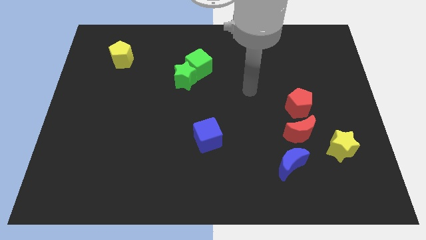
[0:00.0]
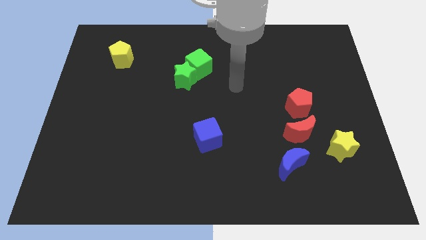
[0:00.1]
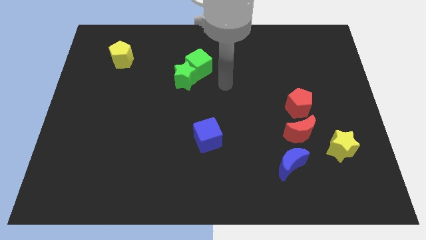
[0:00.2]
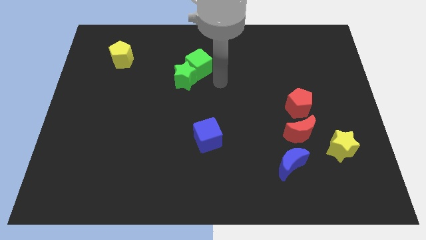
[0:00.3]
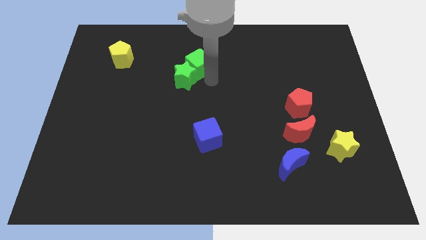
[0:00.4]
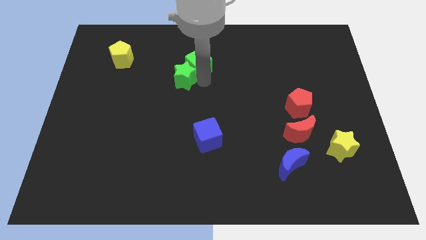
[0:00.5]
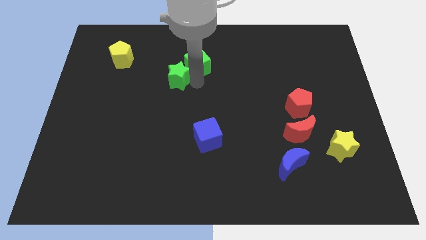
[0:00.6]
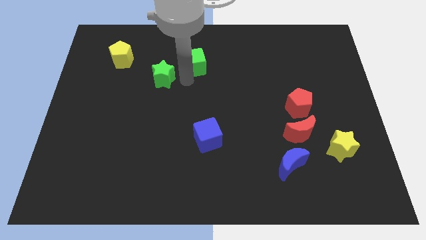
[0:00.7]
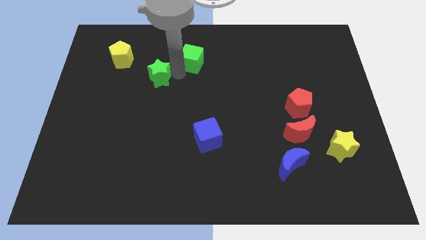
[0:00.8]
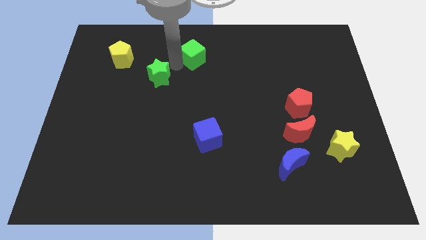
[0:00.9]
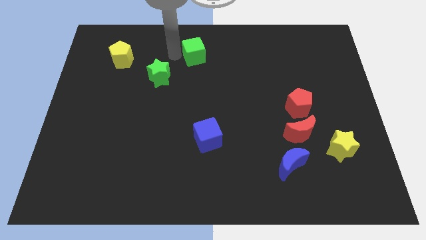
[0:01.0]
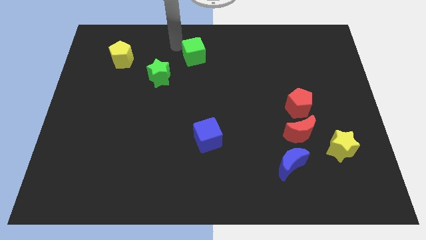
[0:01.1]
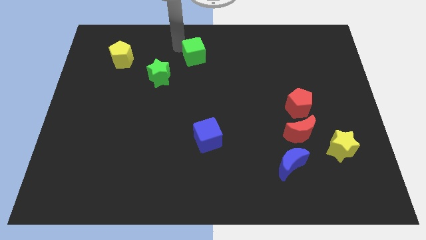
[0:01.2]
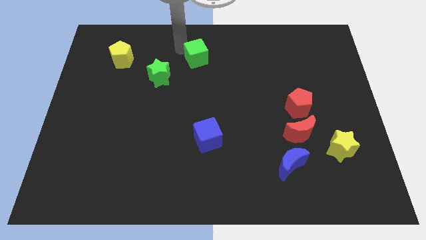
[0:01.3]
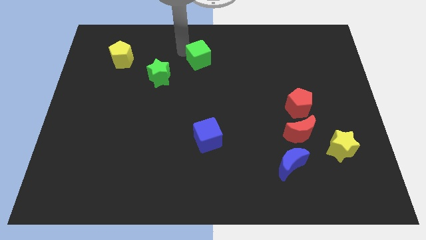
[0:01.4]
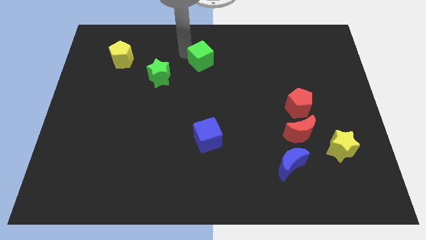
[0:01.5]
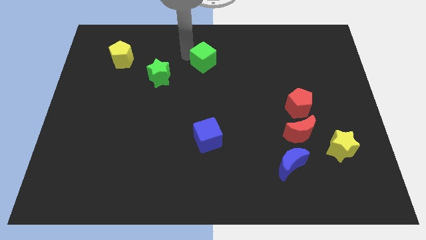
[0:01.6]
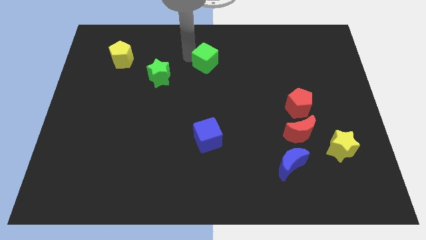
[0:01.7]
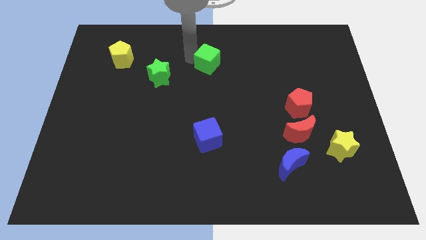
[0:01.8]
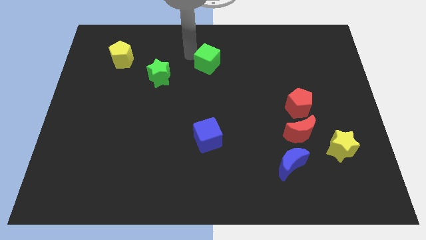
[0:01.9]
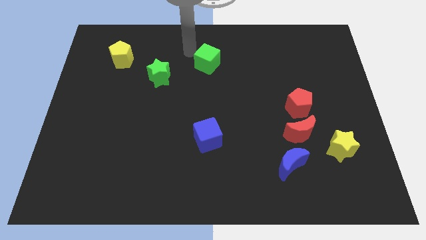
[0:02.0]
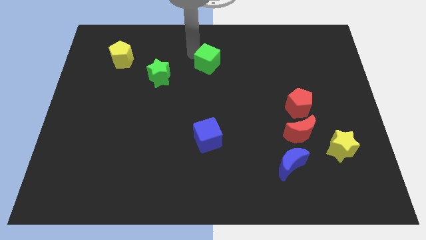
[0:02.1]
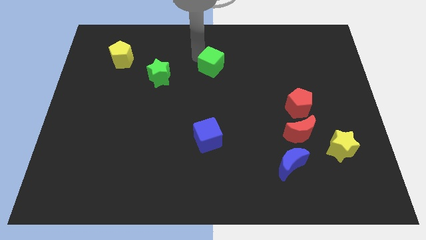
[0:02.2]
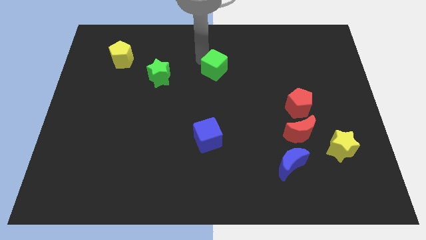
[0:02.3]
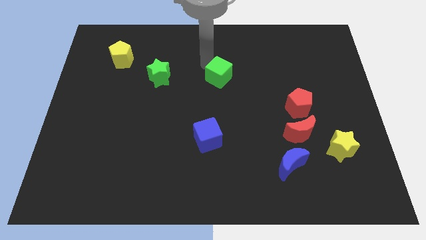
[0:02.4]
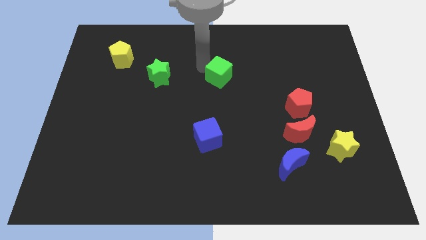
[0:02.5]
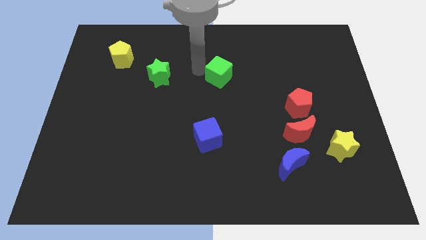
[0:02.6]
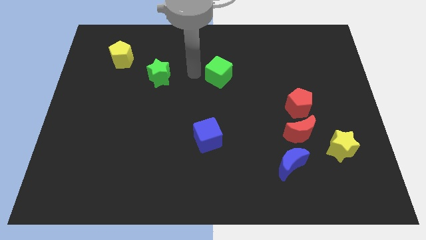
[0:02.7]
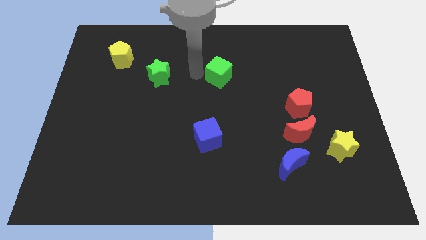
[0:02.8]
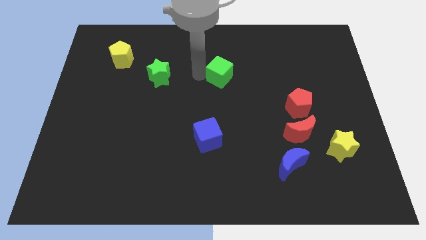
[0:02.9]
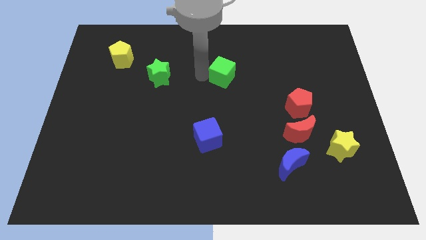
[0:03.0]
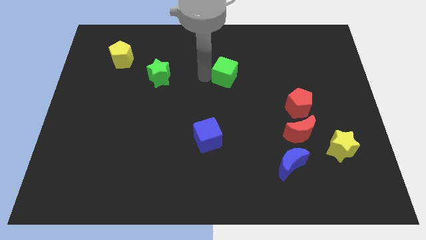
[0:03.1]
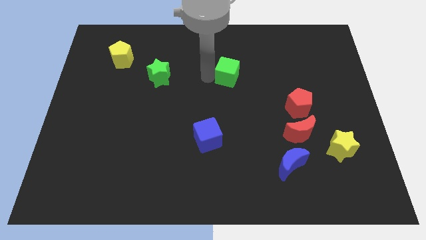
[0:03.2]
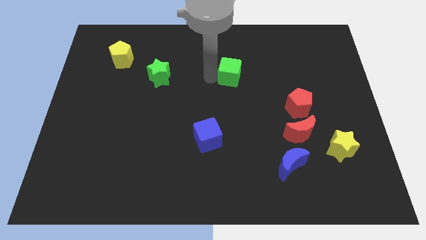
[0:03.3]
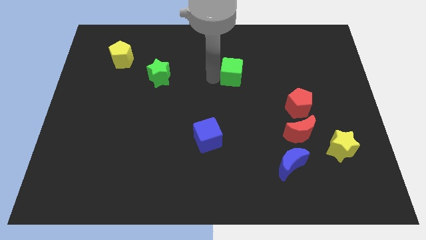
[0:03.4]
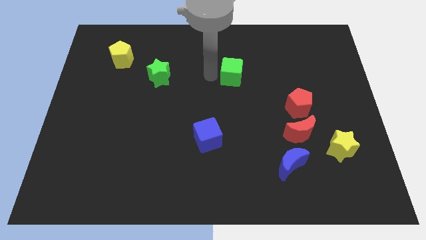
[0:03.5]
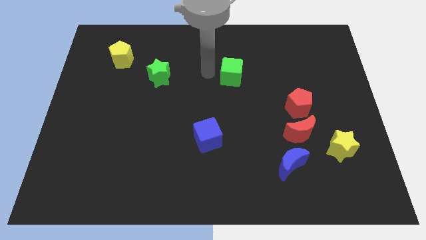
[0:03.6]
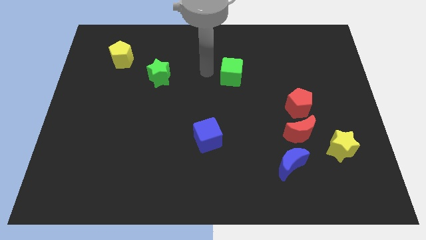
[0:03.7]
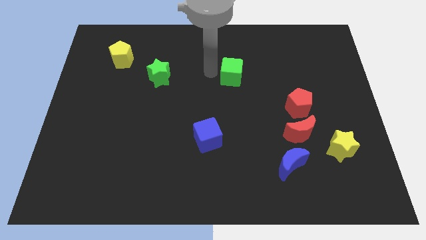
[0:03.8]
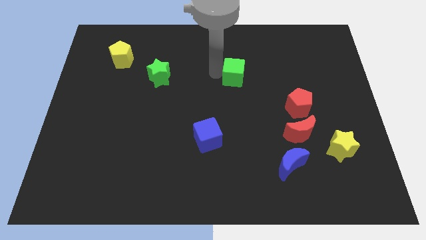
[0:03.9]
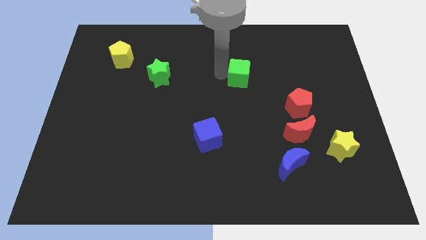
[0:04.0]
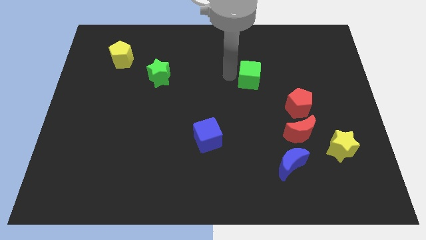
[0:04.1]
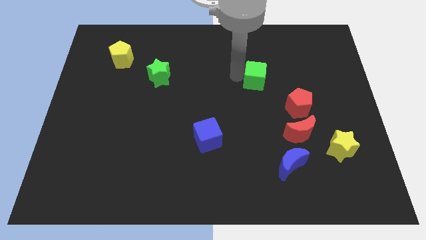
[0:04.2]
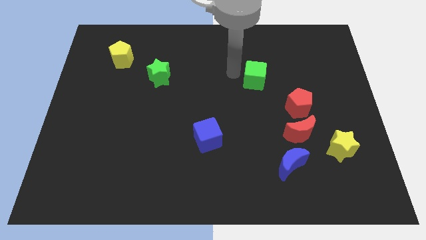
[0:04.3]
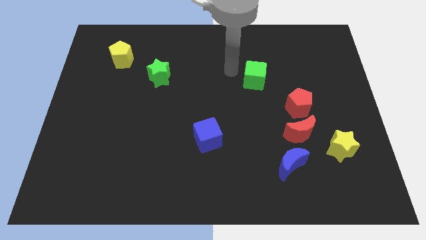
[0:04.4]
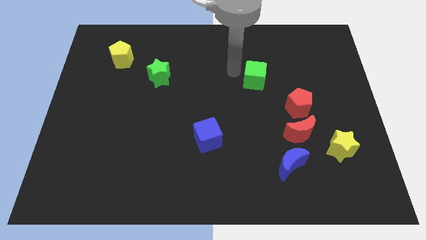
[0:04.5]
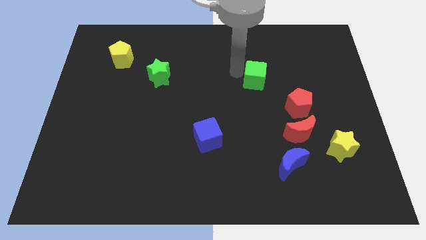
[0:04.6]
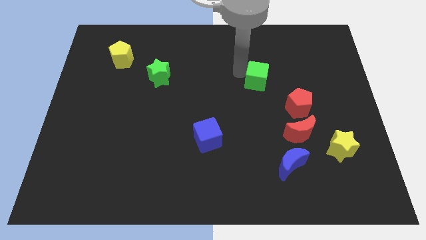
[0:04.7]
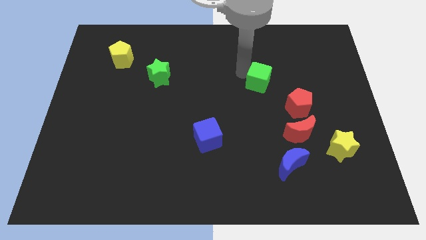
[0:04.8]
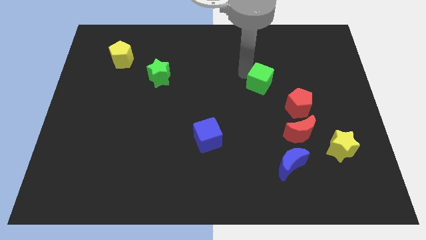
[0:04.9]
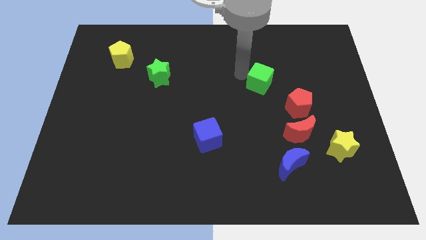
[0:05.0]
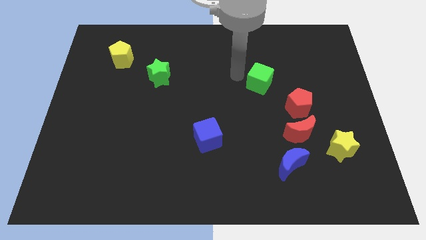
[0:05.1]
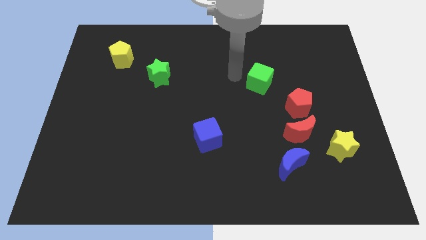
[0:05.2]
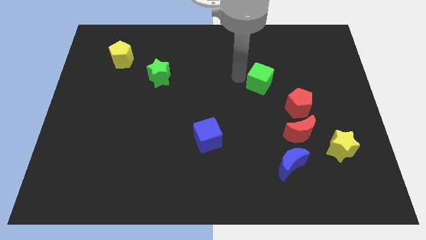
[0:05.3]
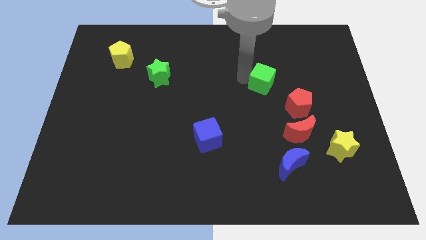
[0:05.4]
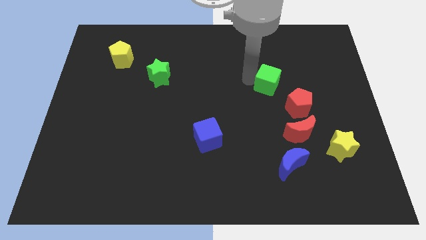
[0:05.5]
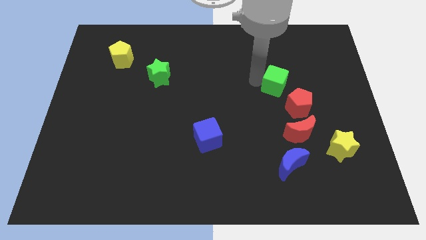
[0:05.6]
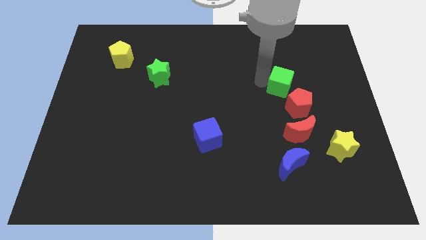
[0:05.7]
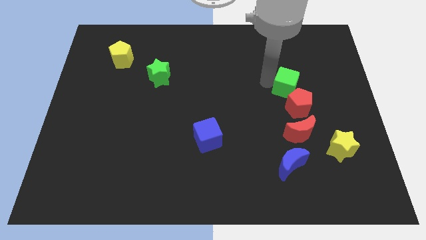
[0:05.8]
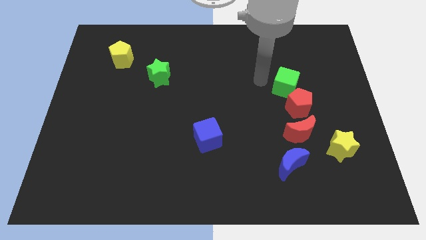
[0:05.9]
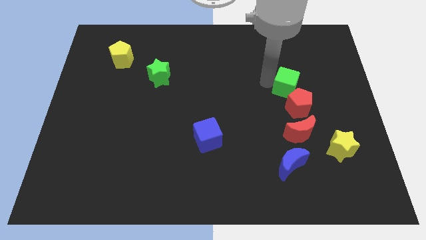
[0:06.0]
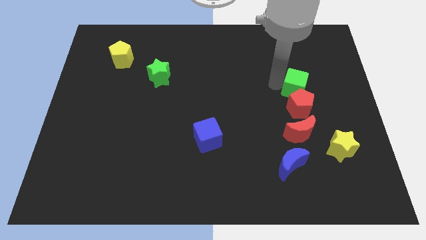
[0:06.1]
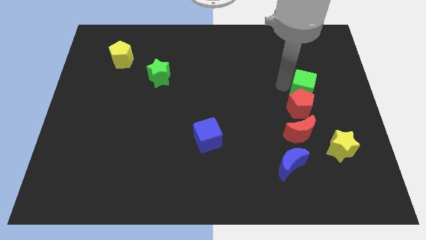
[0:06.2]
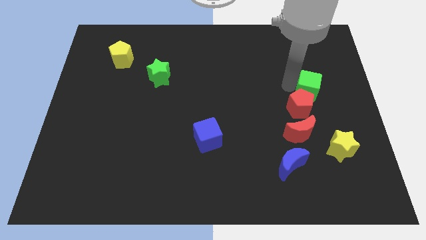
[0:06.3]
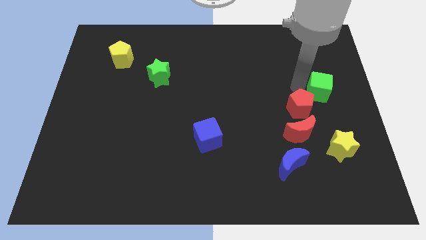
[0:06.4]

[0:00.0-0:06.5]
slide the green cube to the right side of the board

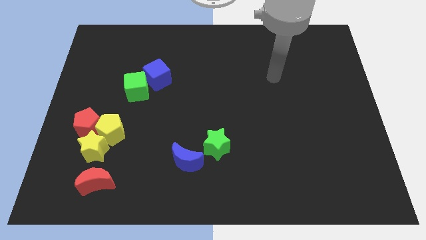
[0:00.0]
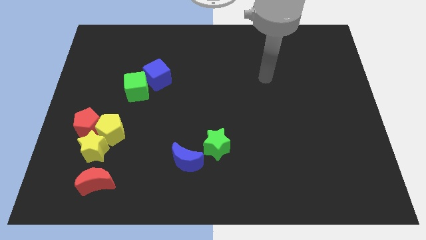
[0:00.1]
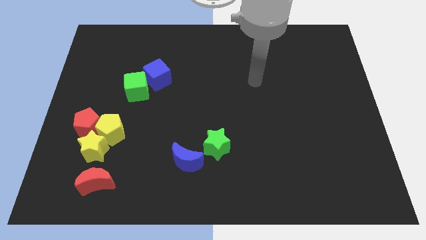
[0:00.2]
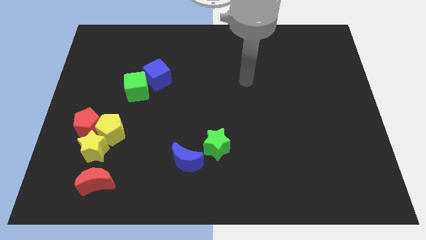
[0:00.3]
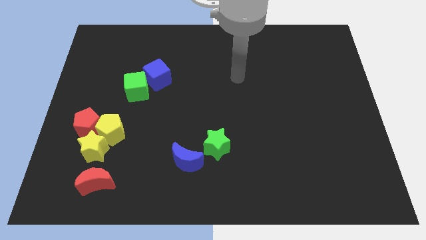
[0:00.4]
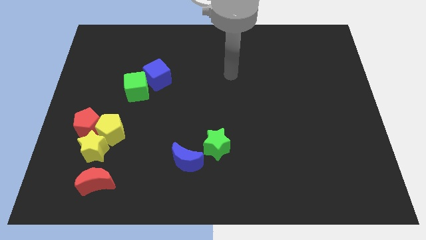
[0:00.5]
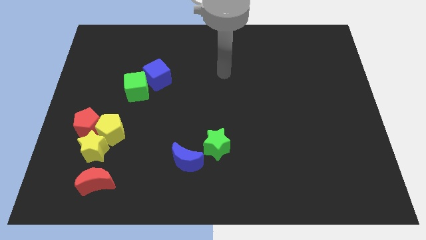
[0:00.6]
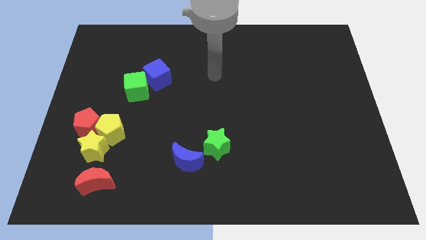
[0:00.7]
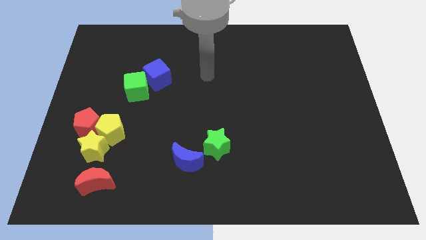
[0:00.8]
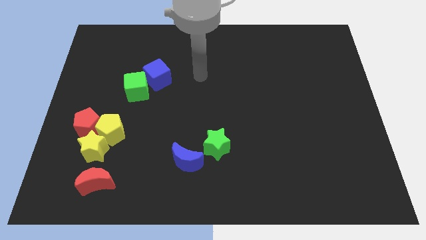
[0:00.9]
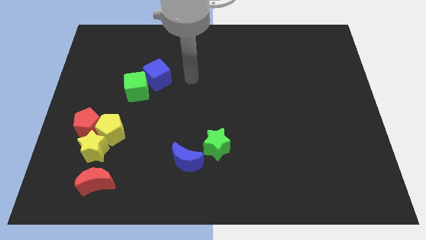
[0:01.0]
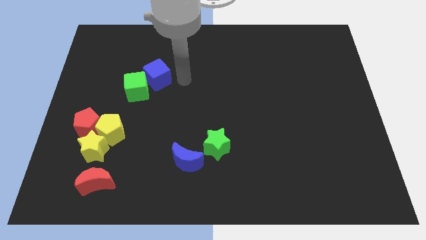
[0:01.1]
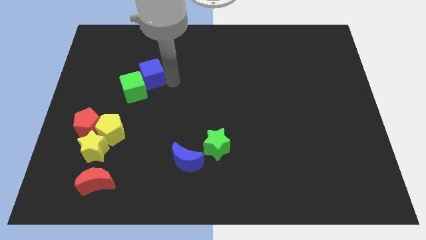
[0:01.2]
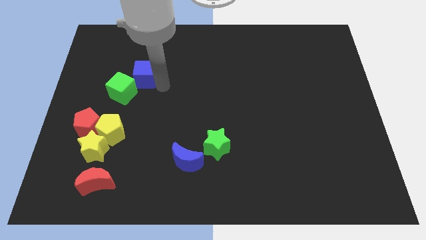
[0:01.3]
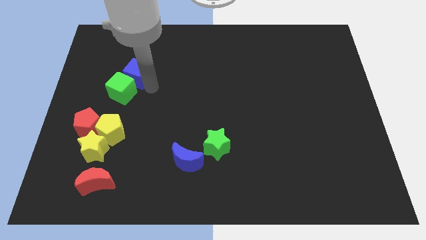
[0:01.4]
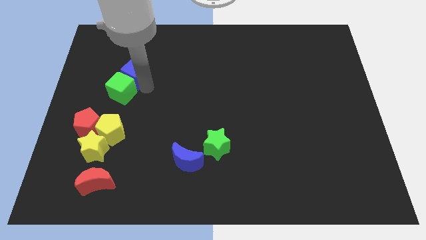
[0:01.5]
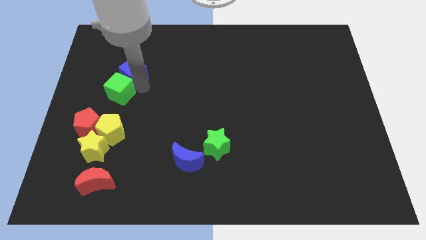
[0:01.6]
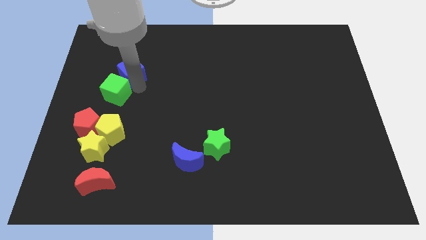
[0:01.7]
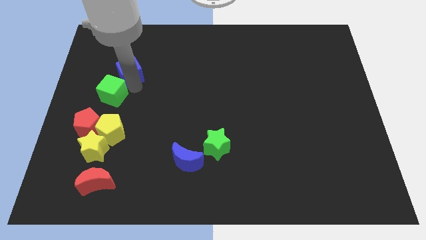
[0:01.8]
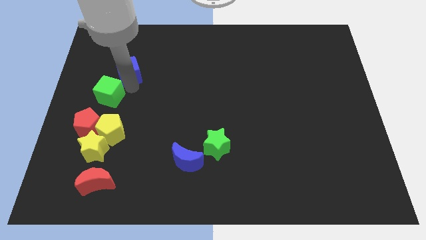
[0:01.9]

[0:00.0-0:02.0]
push the green cube to the left side of the board
